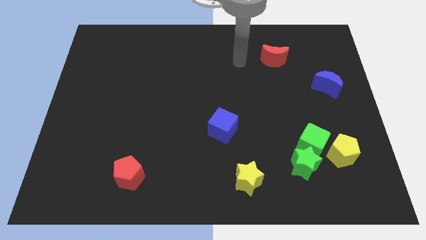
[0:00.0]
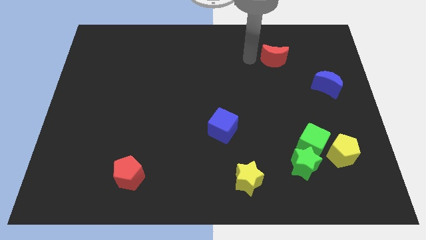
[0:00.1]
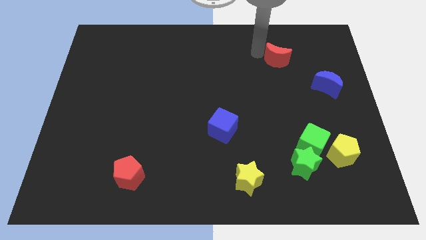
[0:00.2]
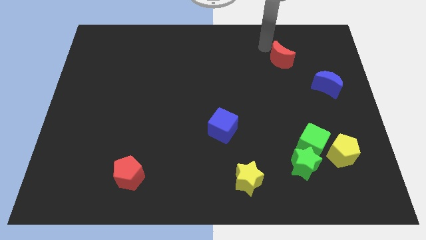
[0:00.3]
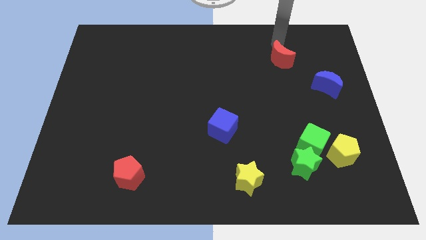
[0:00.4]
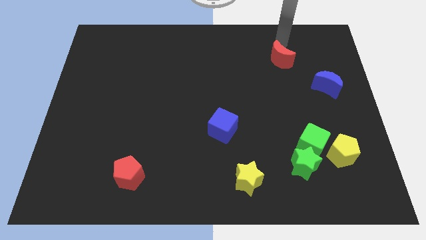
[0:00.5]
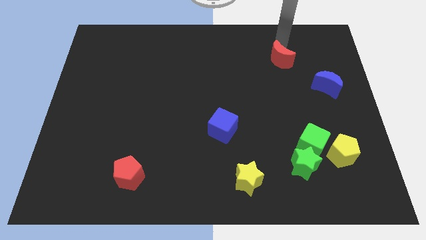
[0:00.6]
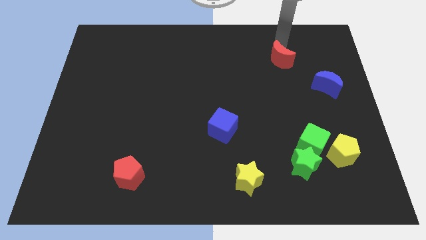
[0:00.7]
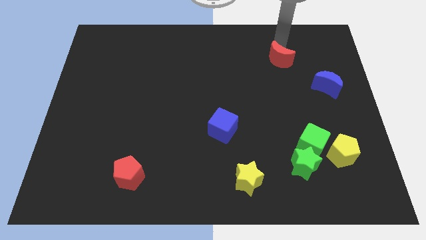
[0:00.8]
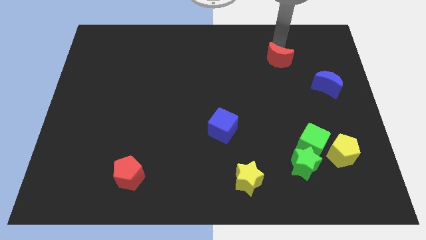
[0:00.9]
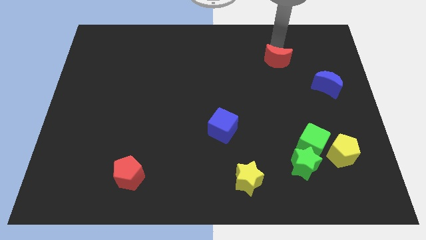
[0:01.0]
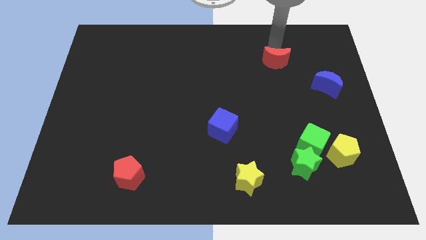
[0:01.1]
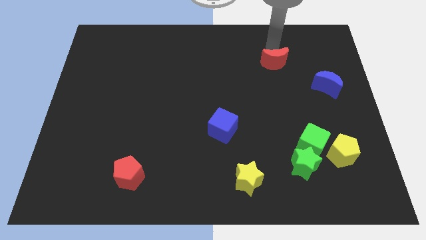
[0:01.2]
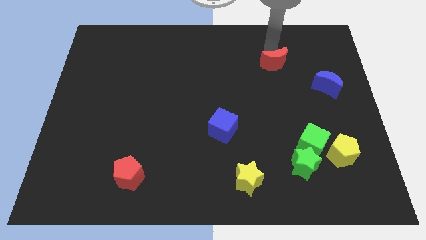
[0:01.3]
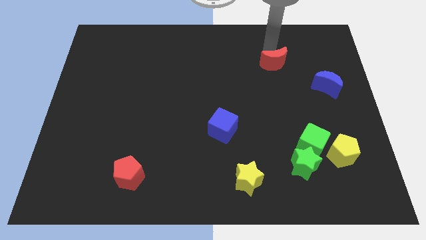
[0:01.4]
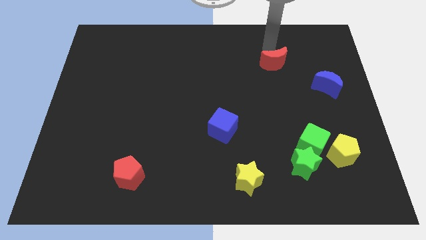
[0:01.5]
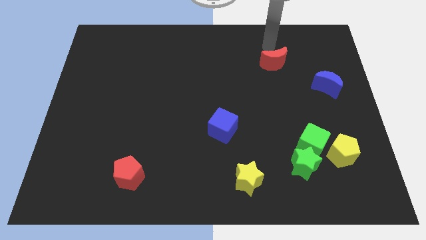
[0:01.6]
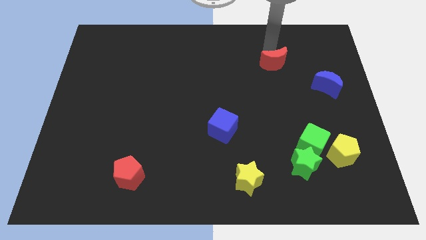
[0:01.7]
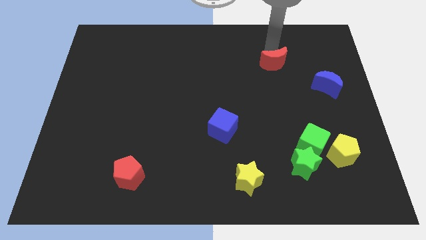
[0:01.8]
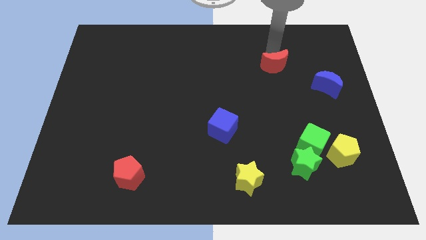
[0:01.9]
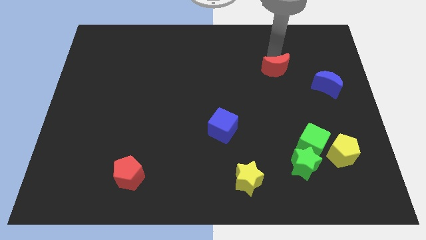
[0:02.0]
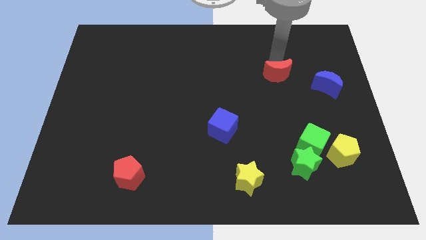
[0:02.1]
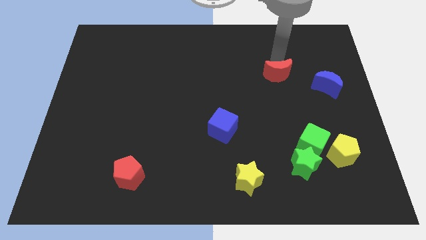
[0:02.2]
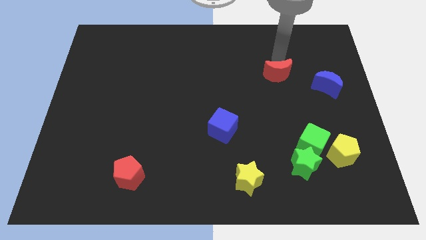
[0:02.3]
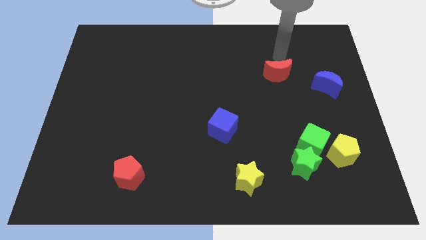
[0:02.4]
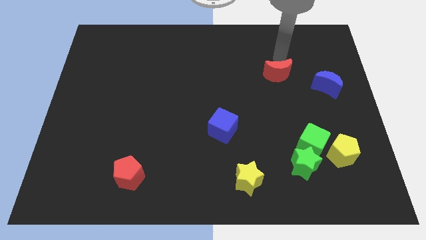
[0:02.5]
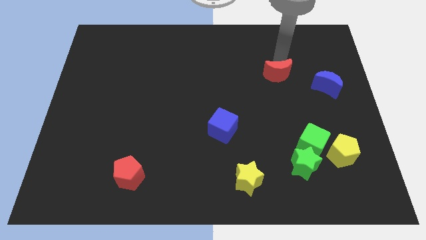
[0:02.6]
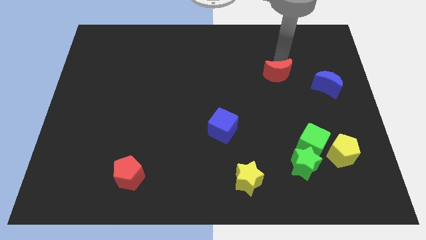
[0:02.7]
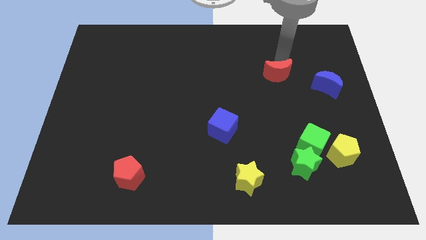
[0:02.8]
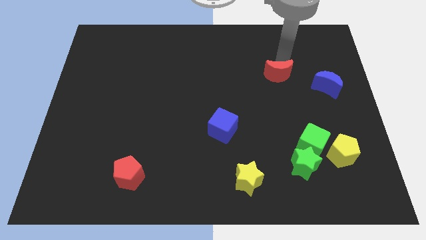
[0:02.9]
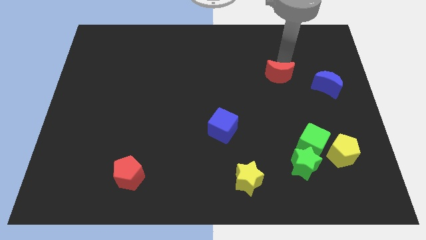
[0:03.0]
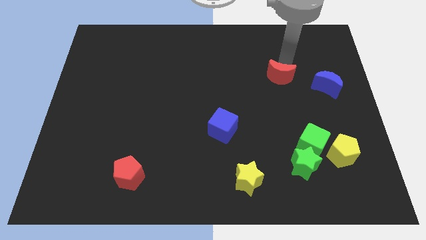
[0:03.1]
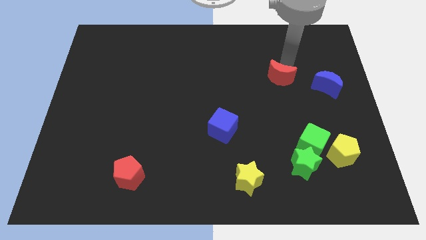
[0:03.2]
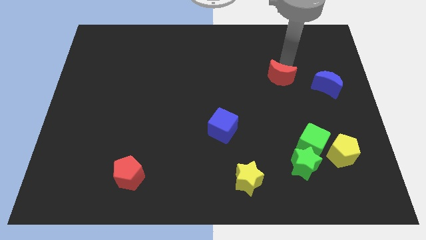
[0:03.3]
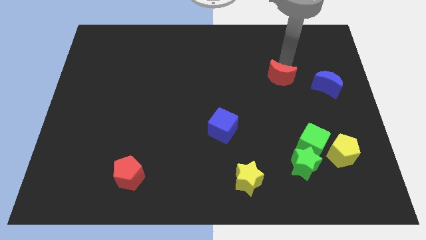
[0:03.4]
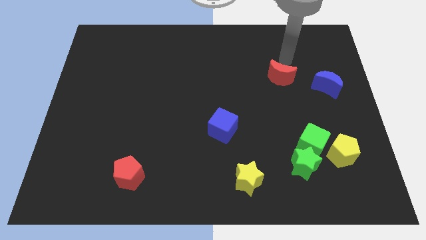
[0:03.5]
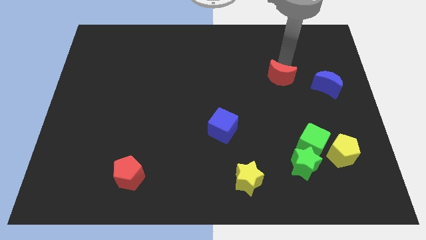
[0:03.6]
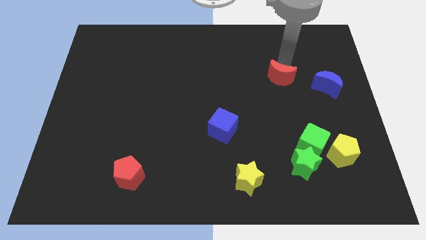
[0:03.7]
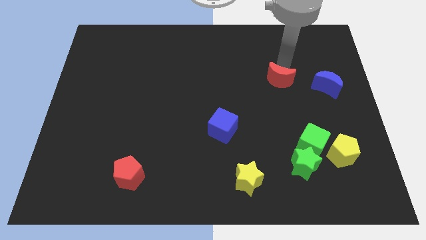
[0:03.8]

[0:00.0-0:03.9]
slide the red moon a bit down

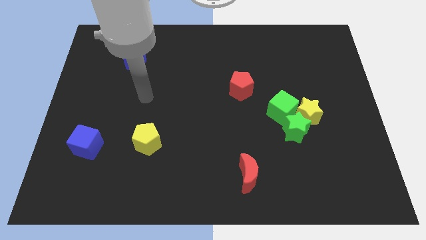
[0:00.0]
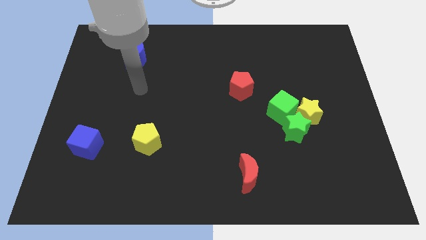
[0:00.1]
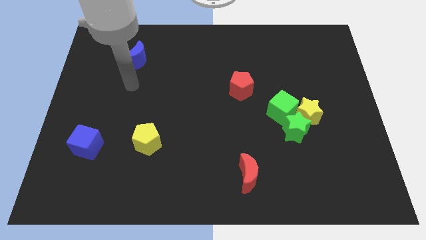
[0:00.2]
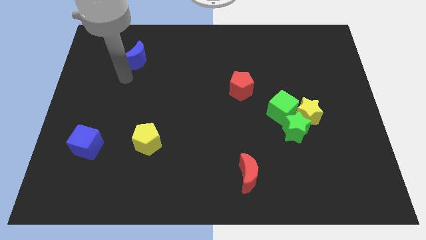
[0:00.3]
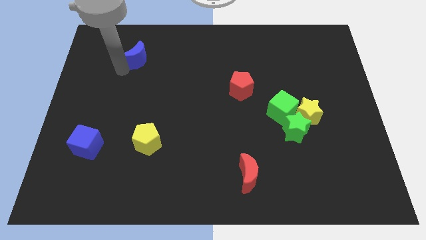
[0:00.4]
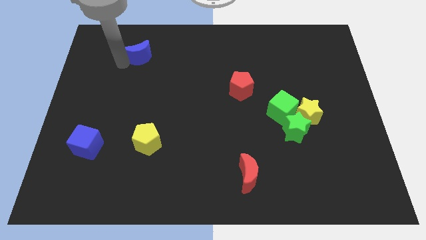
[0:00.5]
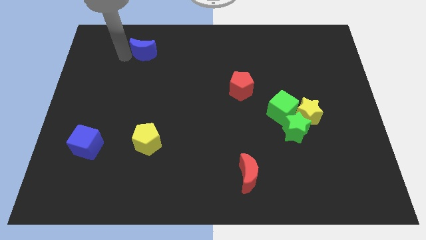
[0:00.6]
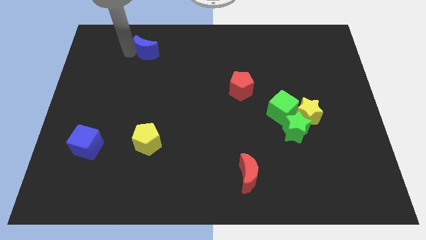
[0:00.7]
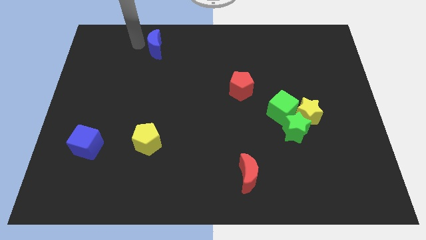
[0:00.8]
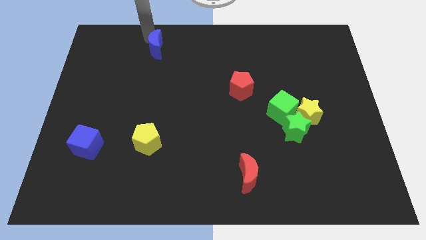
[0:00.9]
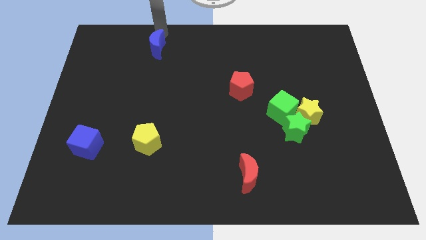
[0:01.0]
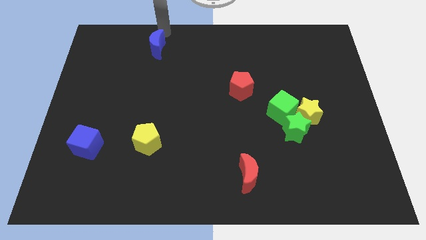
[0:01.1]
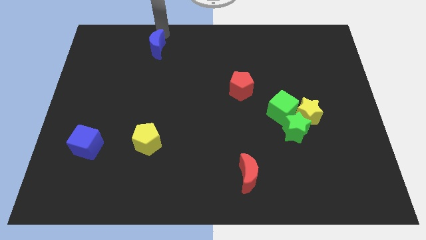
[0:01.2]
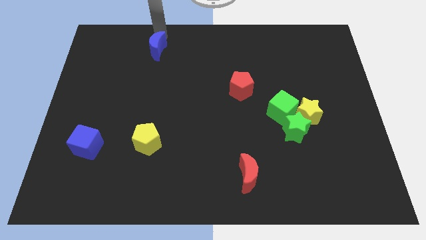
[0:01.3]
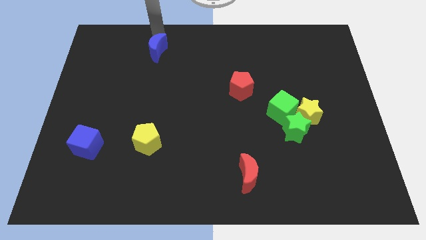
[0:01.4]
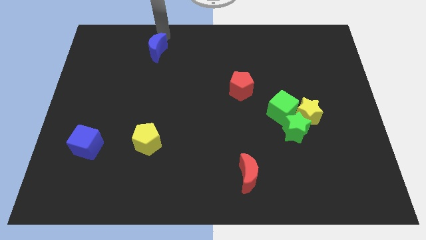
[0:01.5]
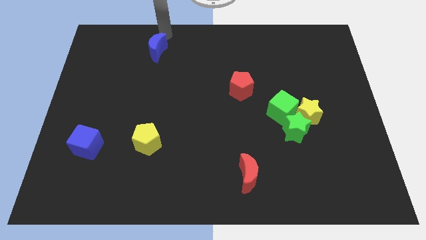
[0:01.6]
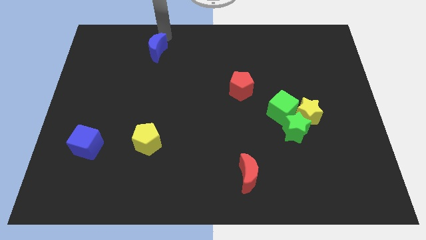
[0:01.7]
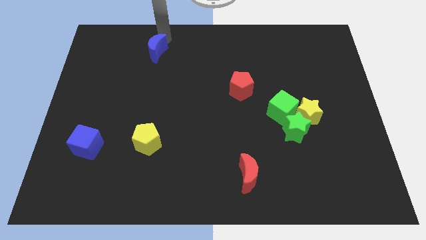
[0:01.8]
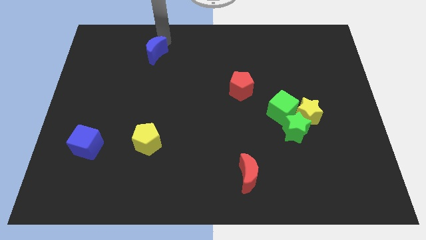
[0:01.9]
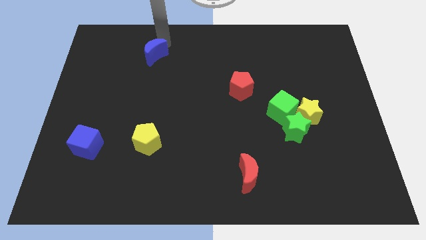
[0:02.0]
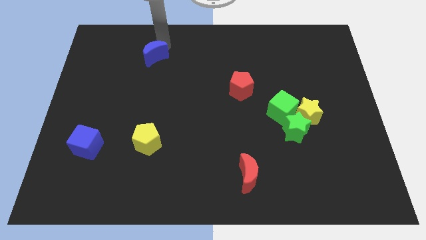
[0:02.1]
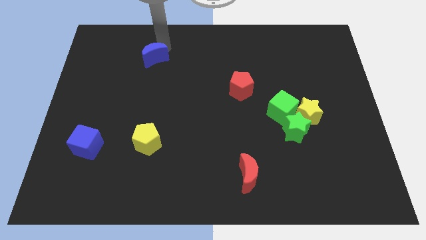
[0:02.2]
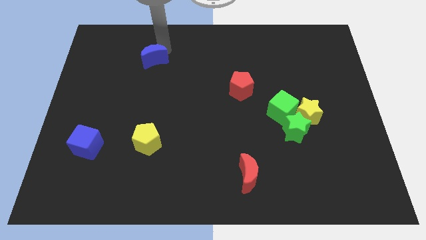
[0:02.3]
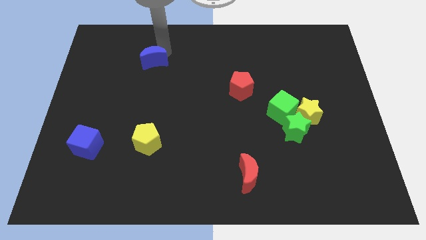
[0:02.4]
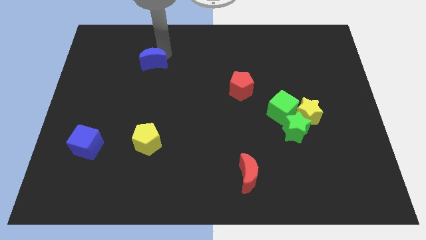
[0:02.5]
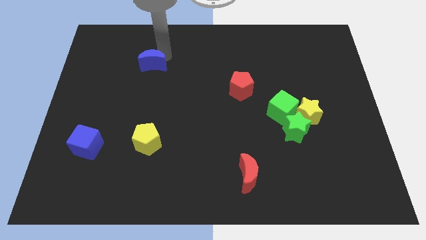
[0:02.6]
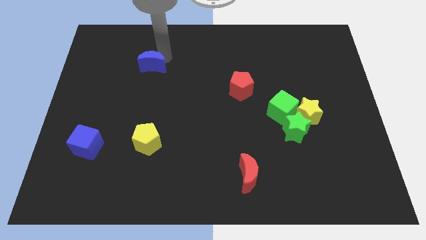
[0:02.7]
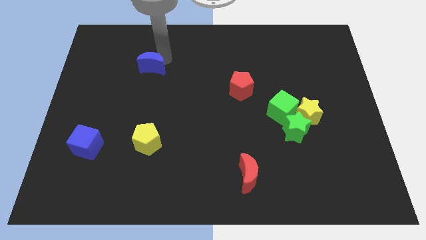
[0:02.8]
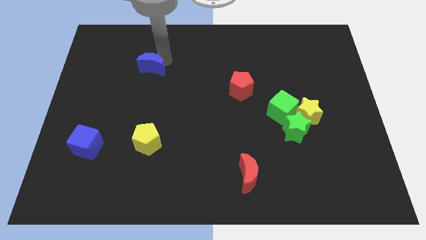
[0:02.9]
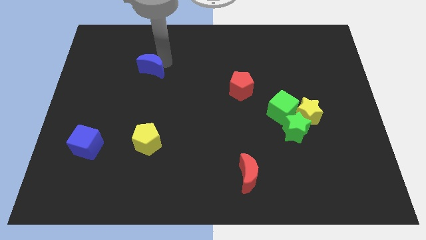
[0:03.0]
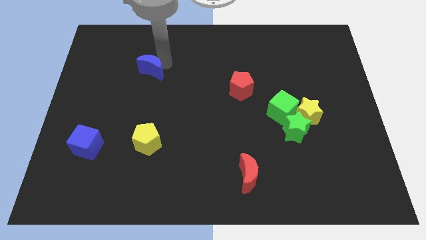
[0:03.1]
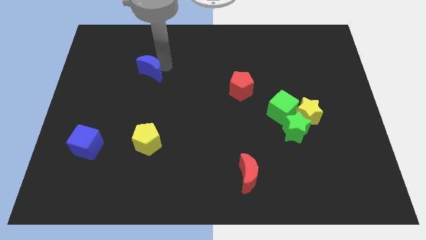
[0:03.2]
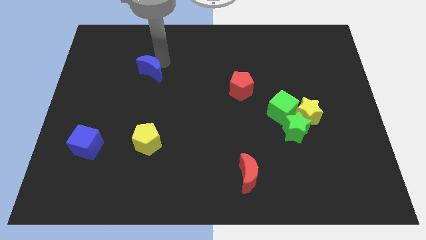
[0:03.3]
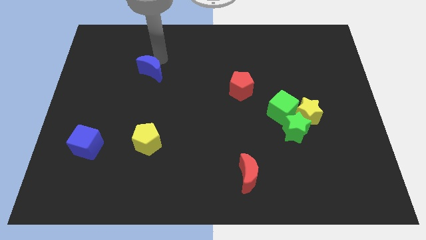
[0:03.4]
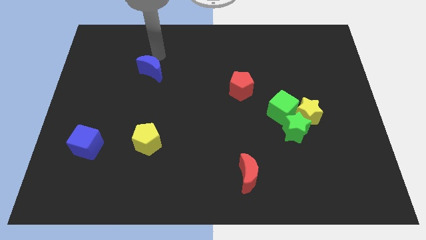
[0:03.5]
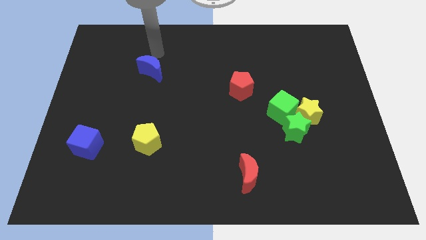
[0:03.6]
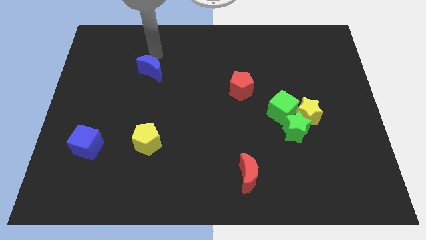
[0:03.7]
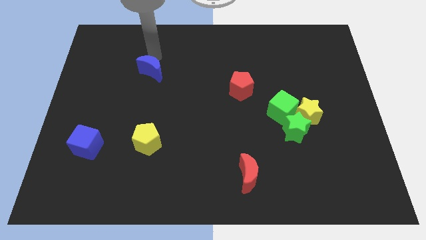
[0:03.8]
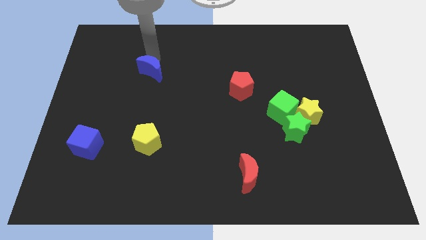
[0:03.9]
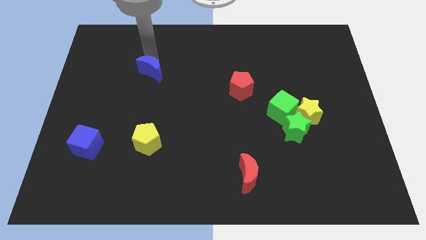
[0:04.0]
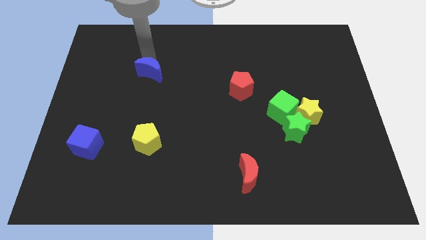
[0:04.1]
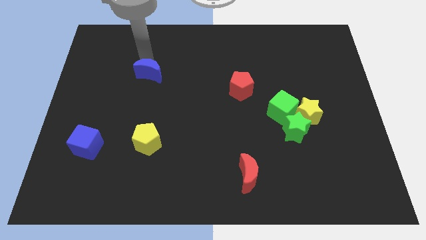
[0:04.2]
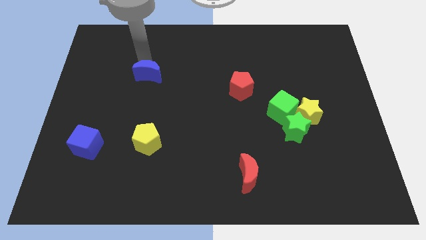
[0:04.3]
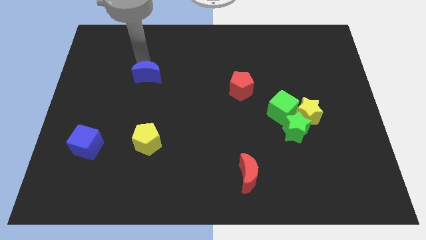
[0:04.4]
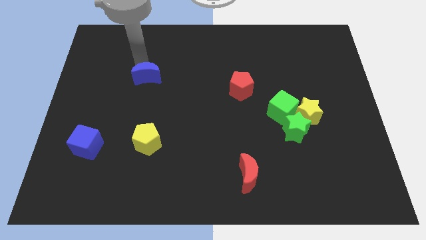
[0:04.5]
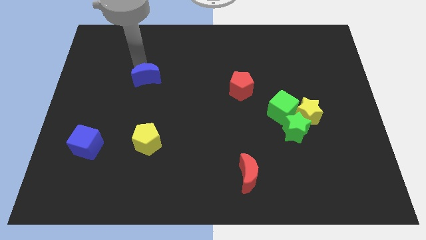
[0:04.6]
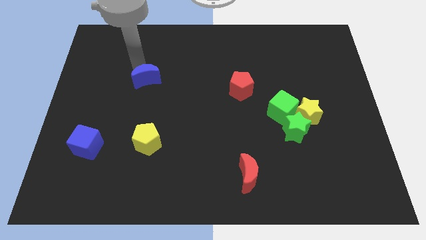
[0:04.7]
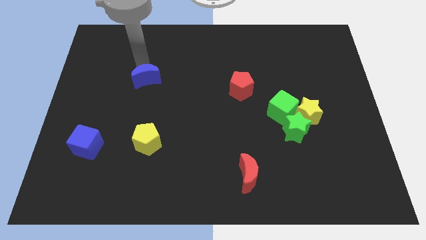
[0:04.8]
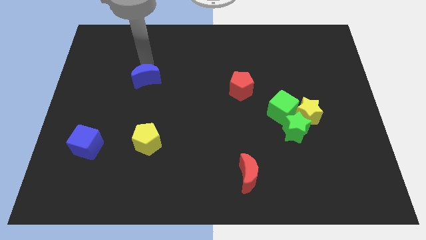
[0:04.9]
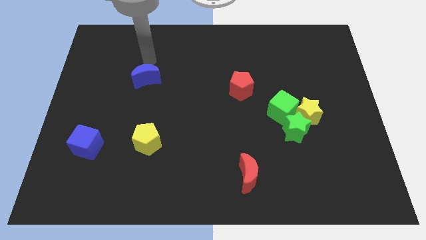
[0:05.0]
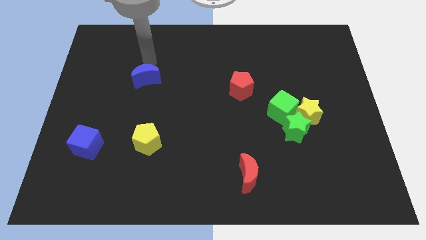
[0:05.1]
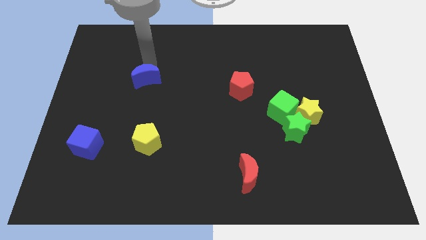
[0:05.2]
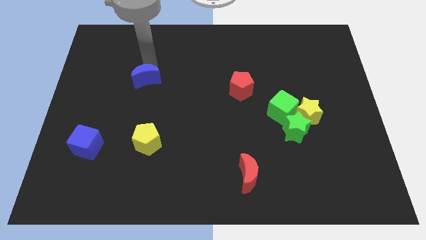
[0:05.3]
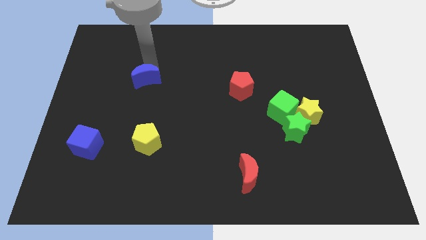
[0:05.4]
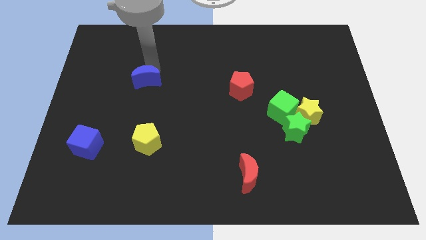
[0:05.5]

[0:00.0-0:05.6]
slightly push the blue moon downwards
